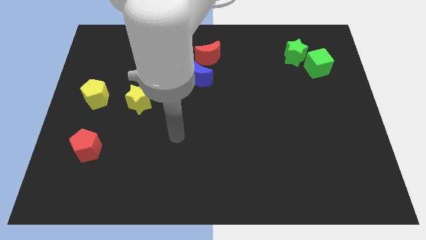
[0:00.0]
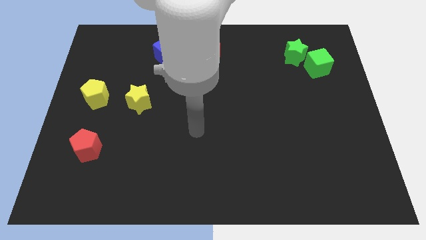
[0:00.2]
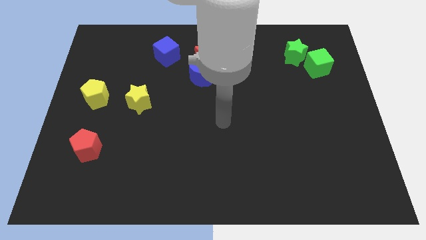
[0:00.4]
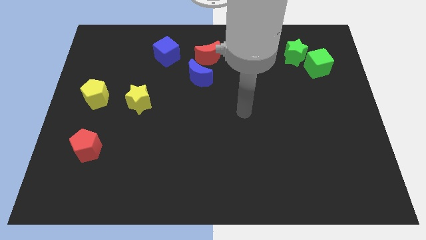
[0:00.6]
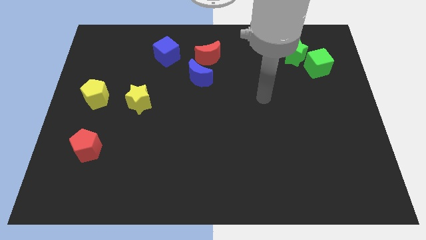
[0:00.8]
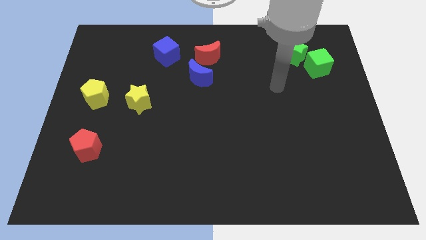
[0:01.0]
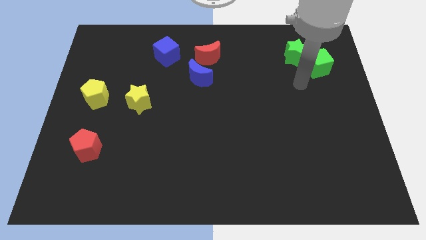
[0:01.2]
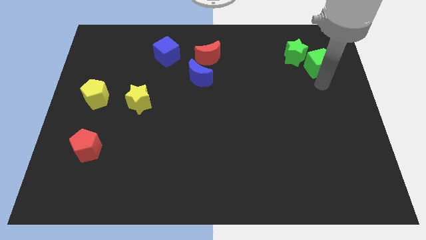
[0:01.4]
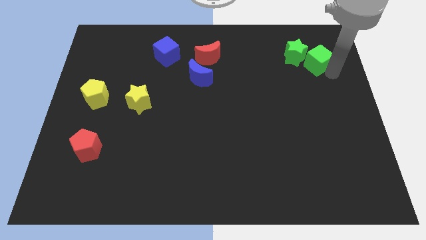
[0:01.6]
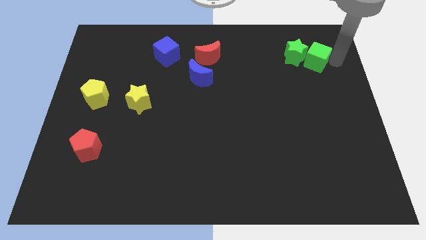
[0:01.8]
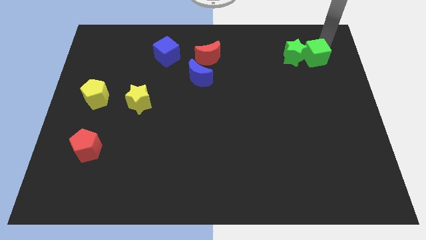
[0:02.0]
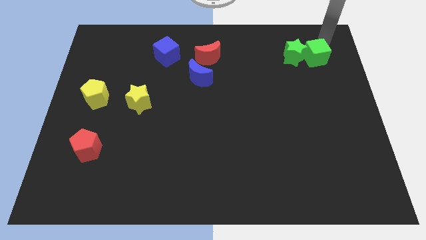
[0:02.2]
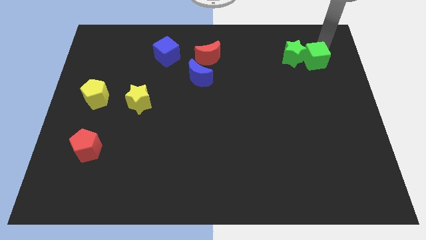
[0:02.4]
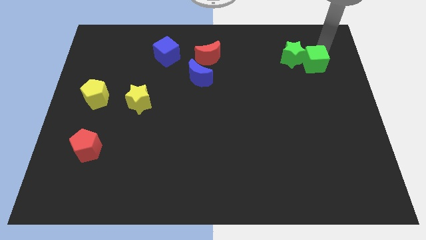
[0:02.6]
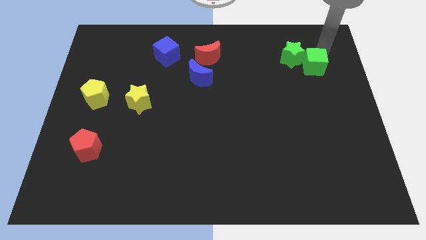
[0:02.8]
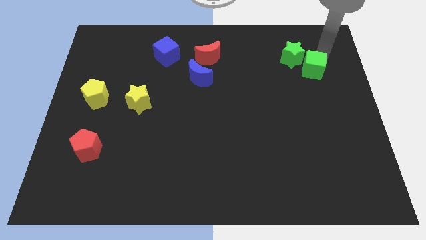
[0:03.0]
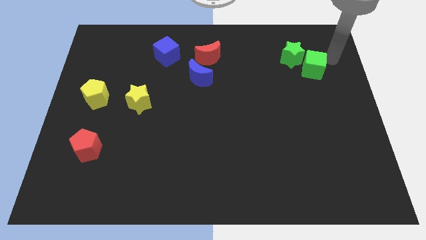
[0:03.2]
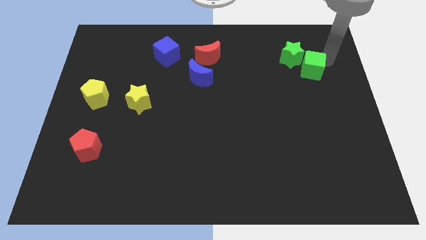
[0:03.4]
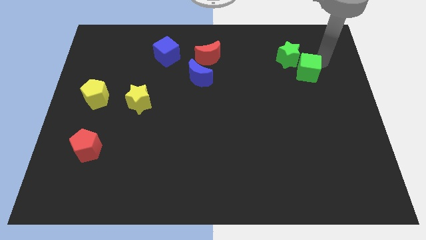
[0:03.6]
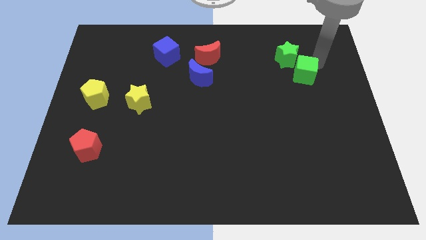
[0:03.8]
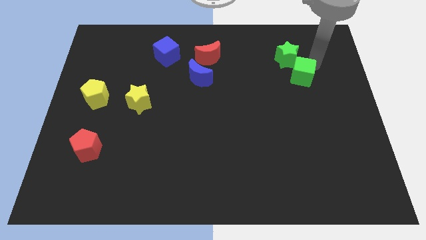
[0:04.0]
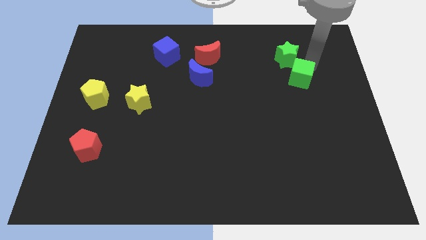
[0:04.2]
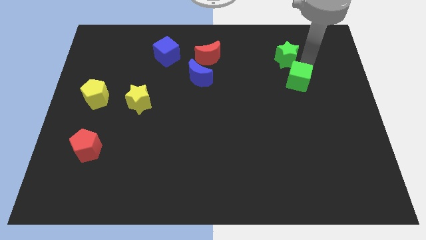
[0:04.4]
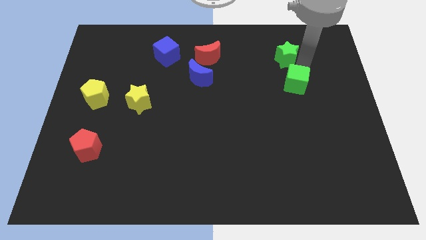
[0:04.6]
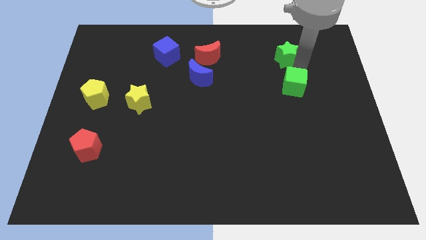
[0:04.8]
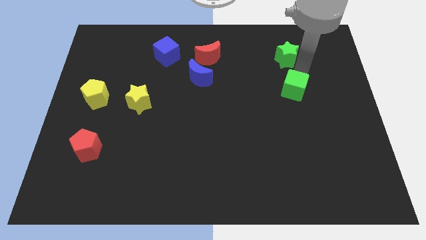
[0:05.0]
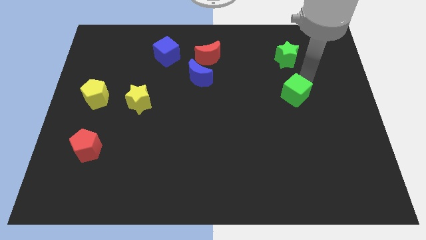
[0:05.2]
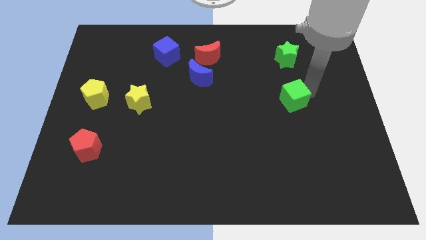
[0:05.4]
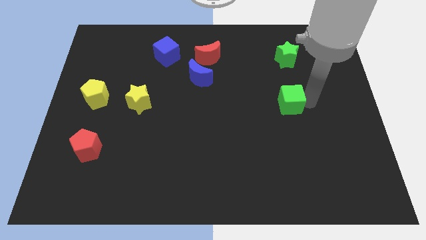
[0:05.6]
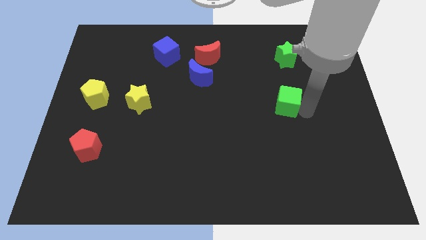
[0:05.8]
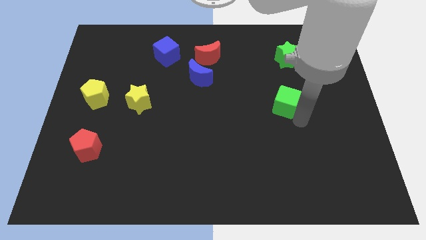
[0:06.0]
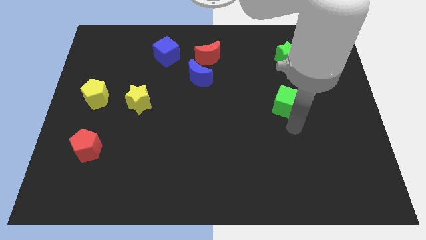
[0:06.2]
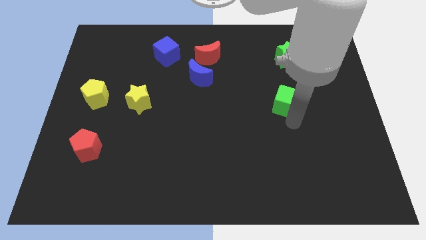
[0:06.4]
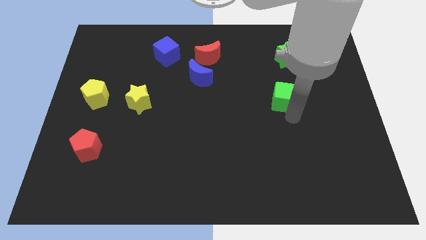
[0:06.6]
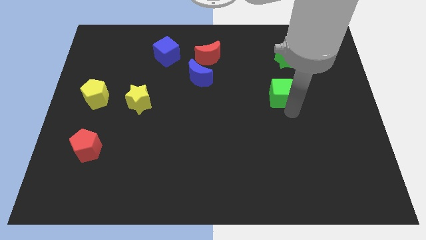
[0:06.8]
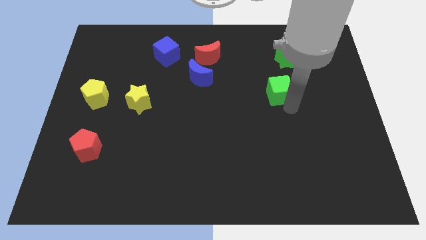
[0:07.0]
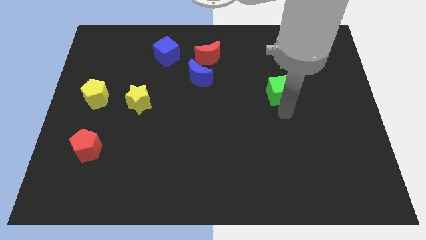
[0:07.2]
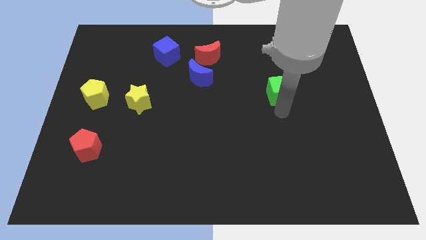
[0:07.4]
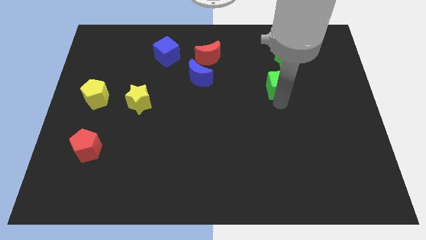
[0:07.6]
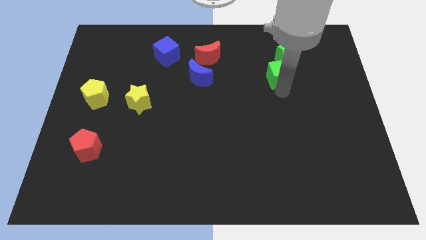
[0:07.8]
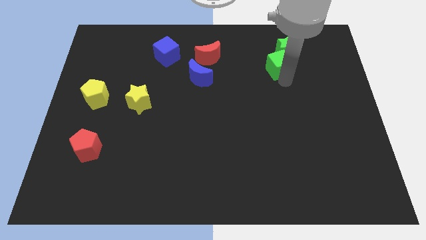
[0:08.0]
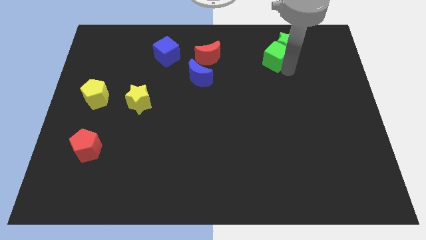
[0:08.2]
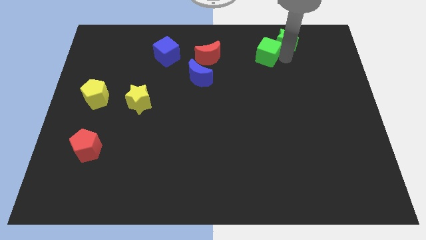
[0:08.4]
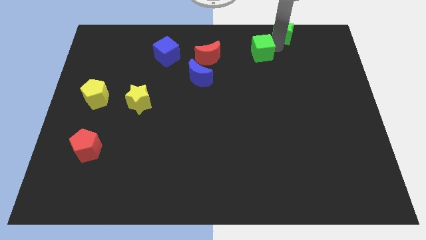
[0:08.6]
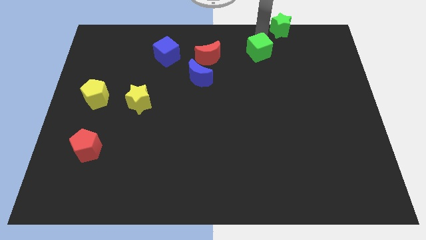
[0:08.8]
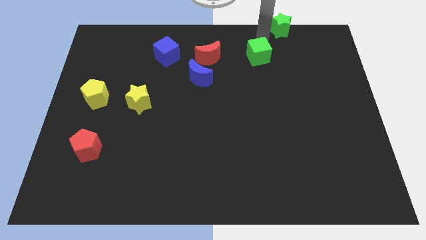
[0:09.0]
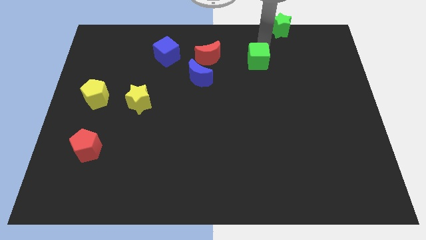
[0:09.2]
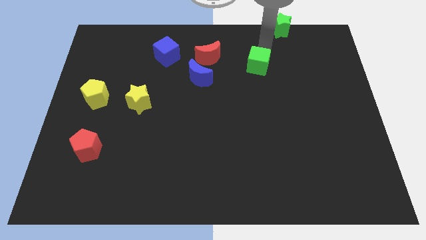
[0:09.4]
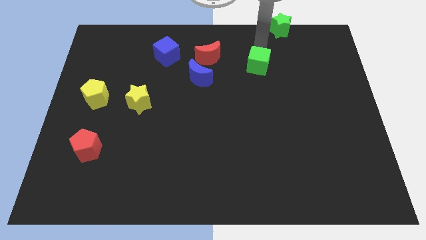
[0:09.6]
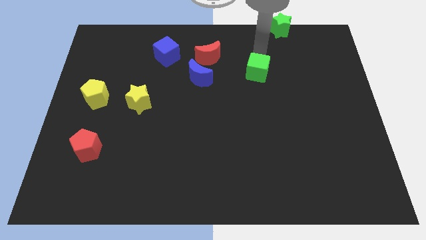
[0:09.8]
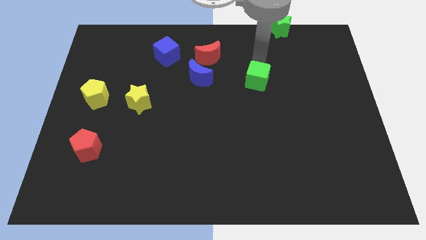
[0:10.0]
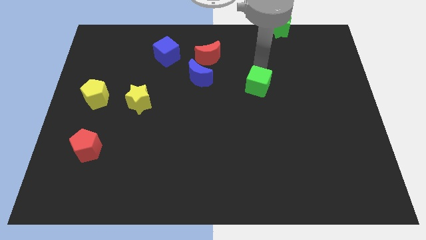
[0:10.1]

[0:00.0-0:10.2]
push the green cube to the middle of the board
